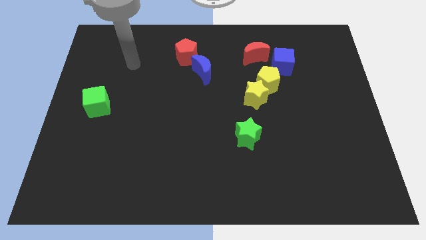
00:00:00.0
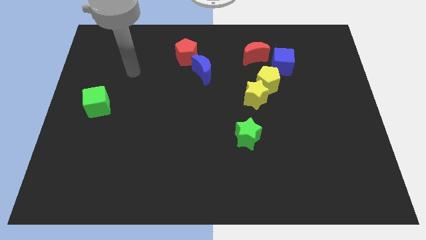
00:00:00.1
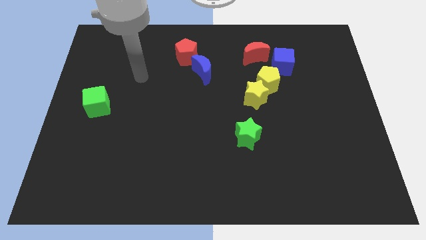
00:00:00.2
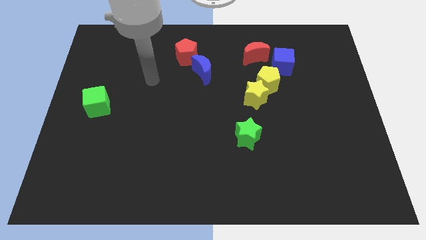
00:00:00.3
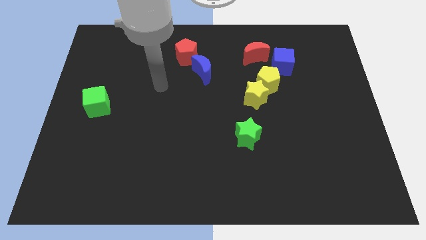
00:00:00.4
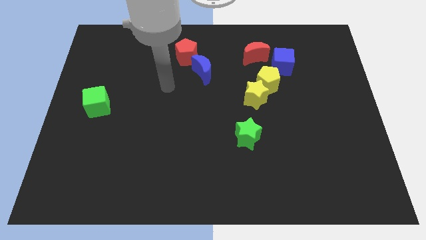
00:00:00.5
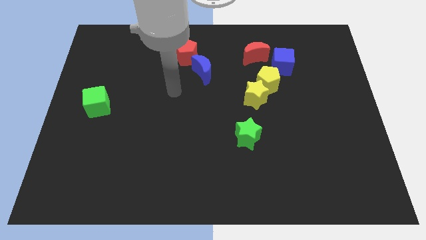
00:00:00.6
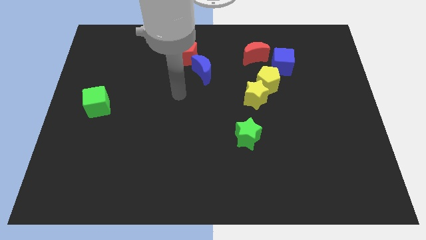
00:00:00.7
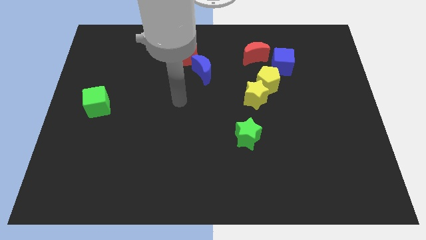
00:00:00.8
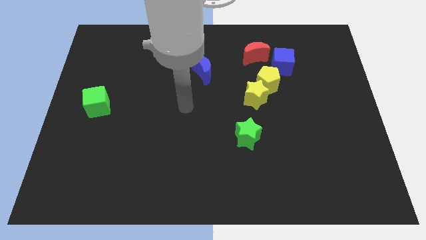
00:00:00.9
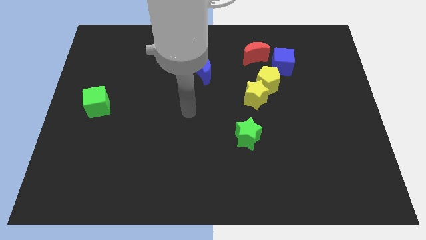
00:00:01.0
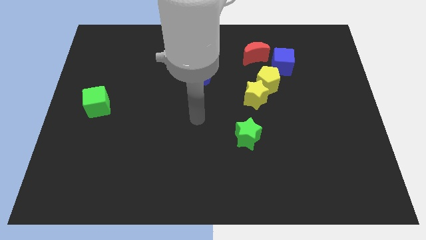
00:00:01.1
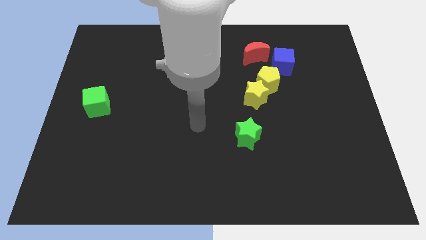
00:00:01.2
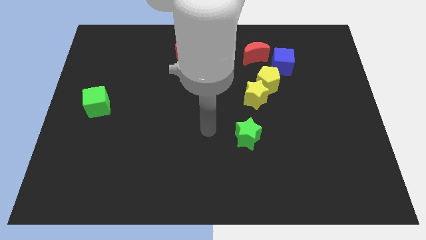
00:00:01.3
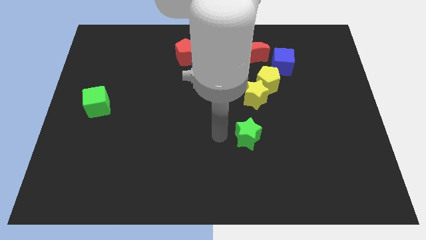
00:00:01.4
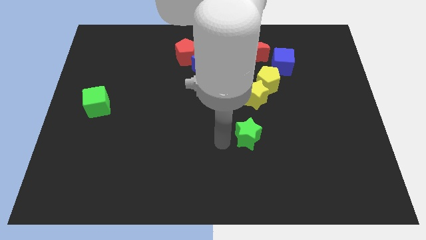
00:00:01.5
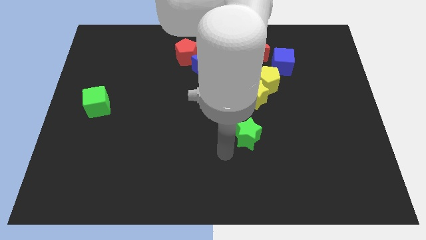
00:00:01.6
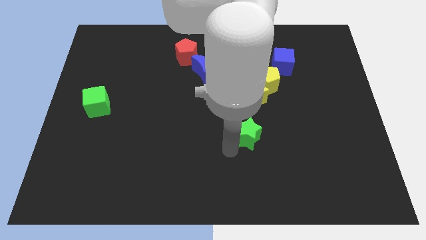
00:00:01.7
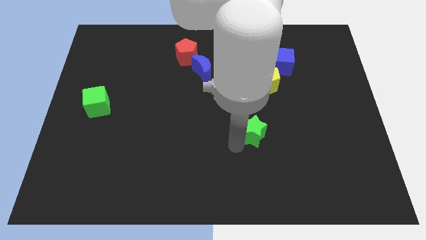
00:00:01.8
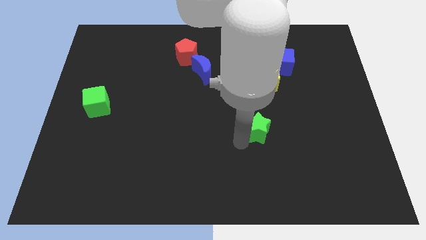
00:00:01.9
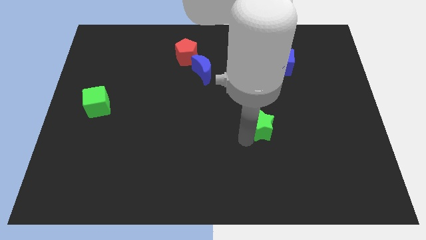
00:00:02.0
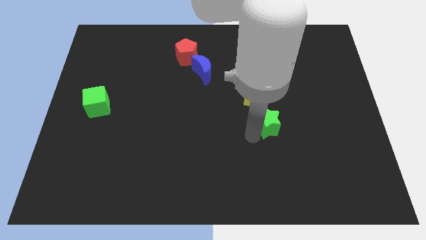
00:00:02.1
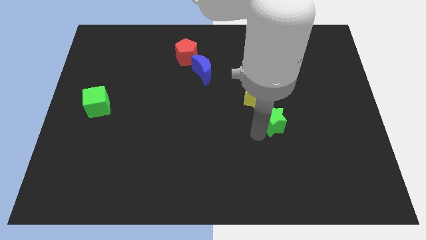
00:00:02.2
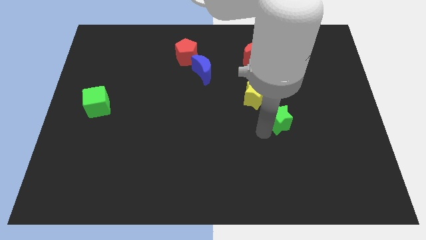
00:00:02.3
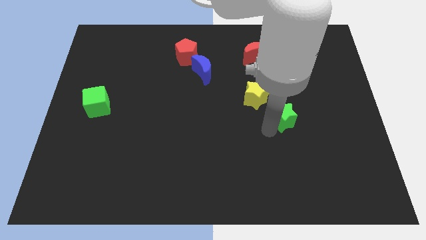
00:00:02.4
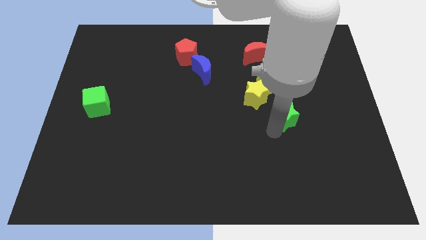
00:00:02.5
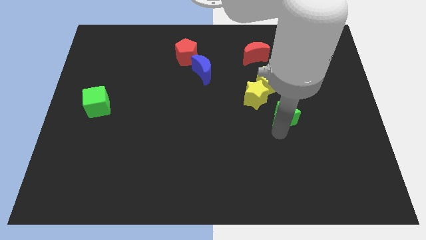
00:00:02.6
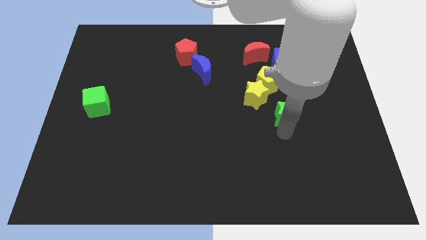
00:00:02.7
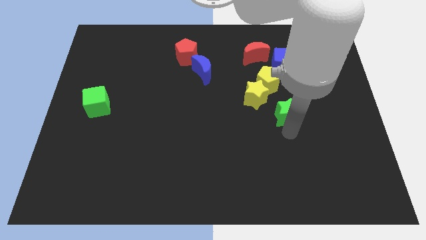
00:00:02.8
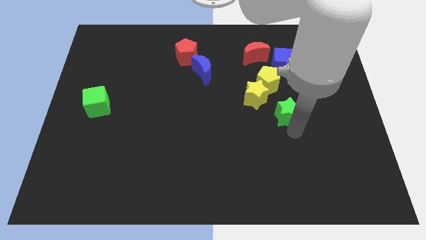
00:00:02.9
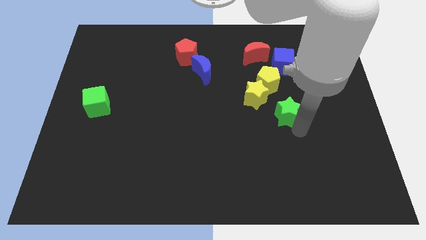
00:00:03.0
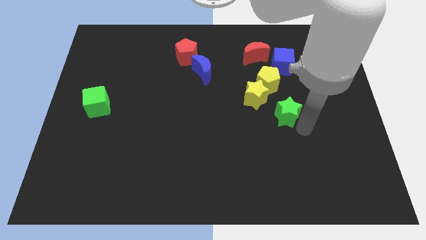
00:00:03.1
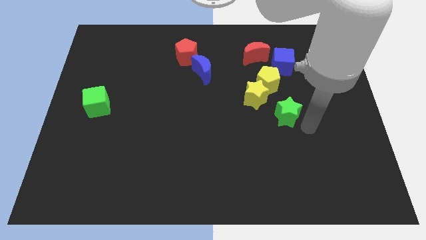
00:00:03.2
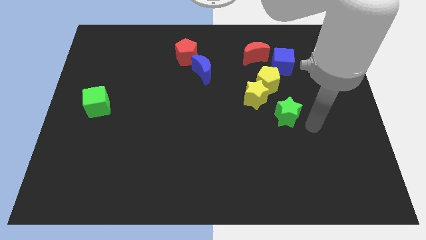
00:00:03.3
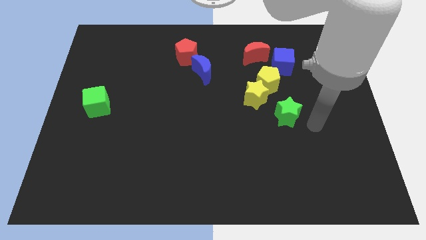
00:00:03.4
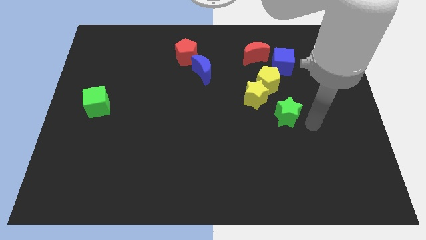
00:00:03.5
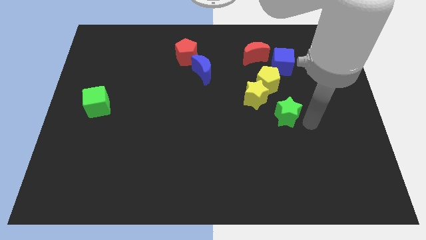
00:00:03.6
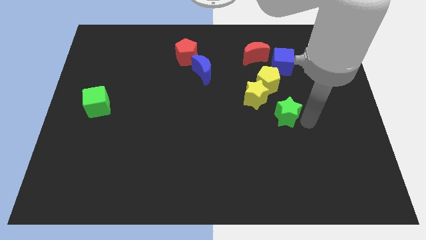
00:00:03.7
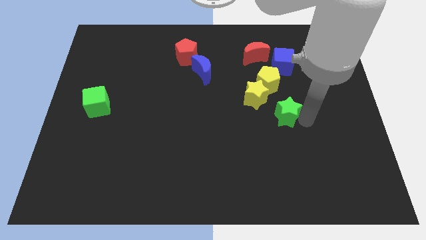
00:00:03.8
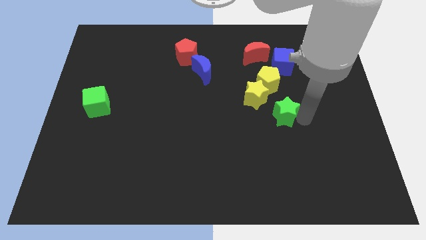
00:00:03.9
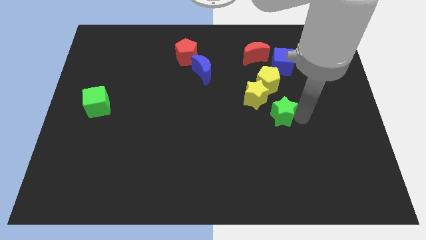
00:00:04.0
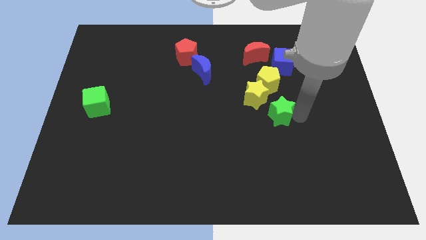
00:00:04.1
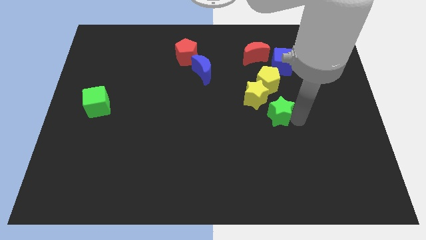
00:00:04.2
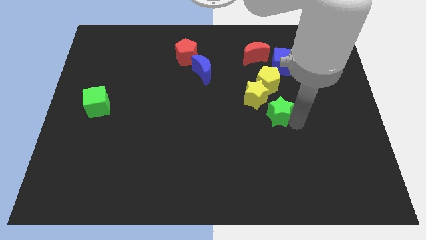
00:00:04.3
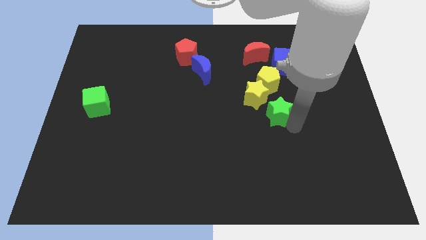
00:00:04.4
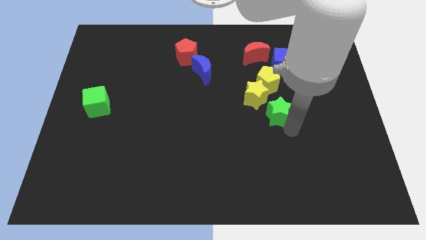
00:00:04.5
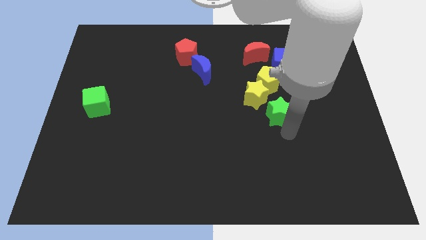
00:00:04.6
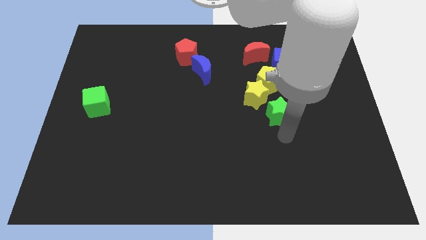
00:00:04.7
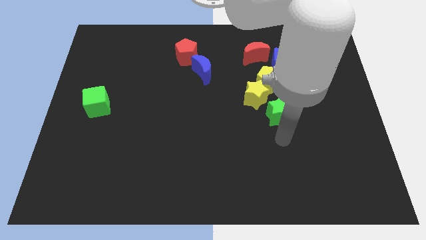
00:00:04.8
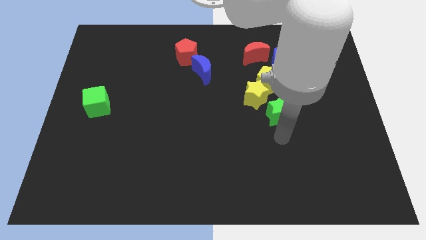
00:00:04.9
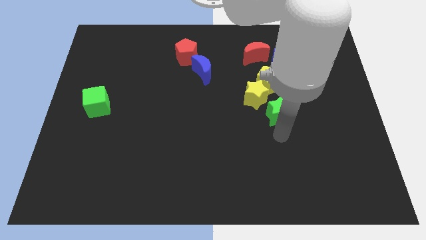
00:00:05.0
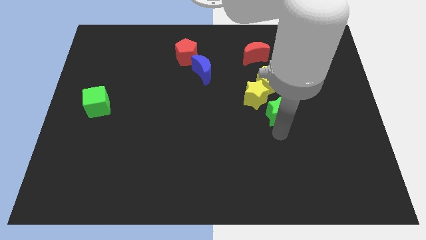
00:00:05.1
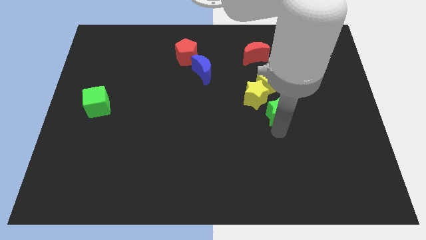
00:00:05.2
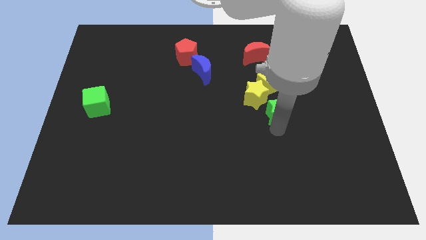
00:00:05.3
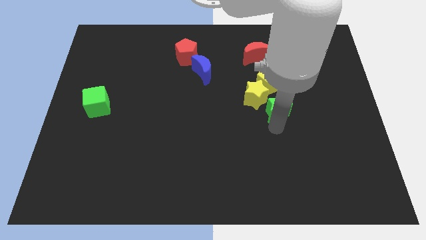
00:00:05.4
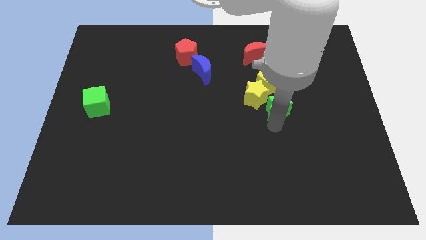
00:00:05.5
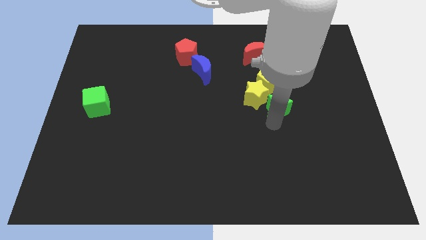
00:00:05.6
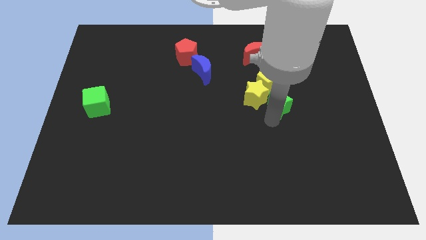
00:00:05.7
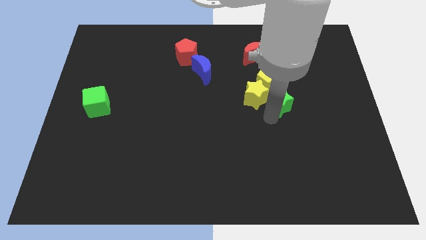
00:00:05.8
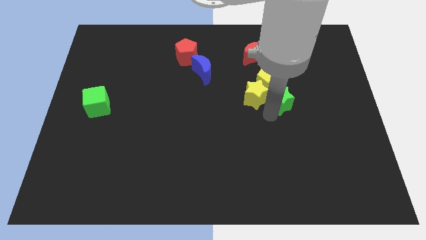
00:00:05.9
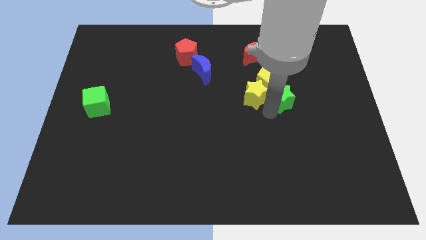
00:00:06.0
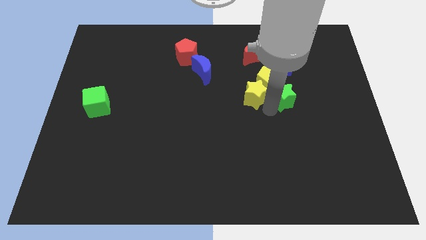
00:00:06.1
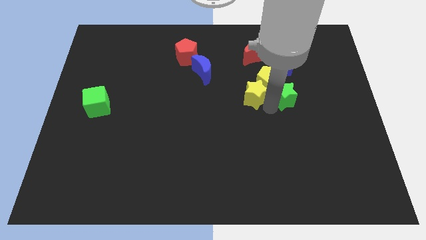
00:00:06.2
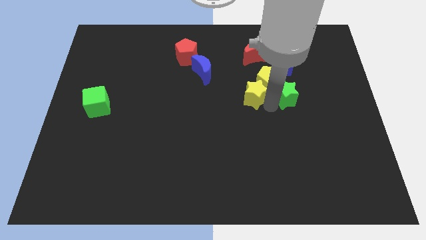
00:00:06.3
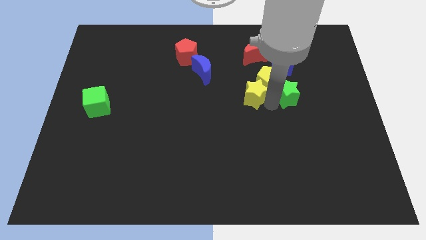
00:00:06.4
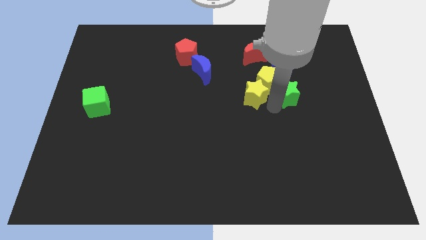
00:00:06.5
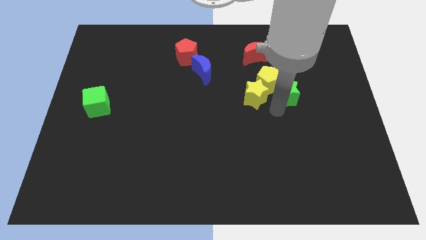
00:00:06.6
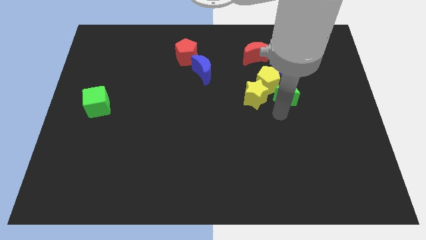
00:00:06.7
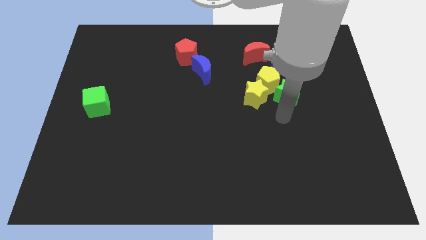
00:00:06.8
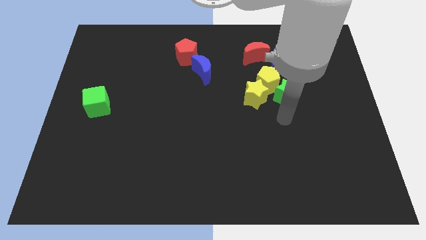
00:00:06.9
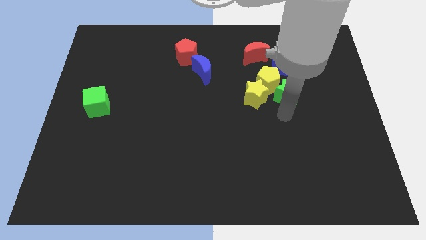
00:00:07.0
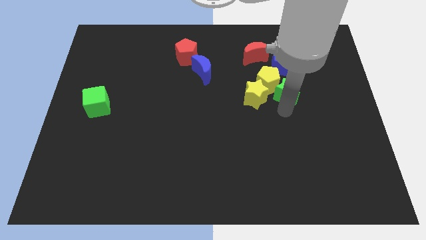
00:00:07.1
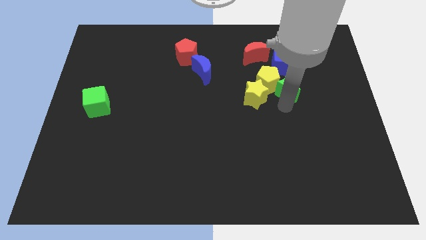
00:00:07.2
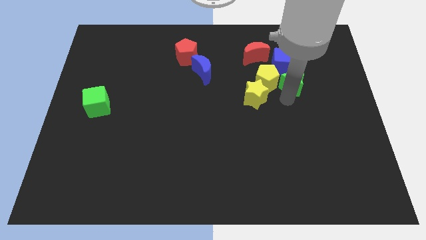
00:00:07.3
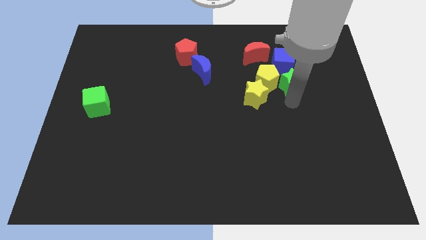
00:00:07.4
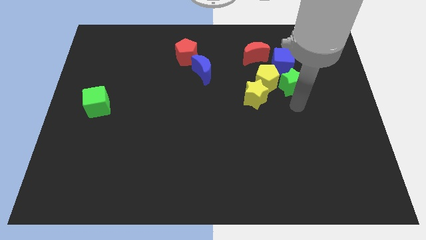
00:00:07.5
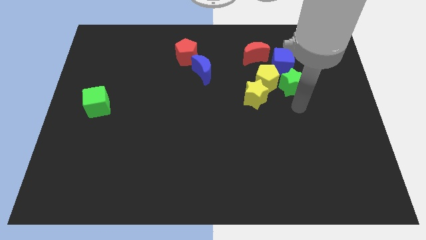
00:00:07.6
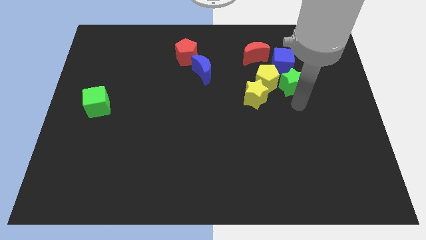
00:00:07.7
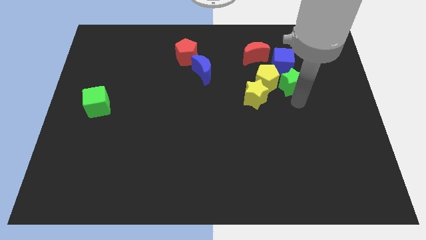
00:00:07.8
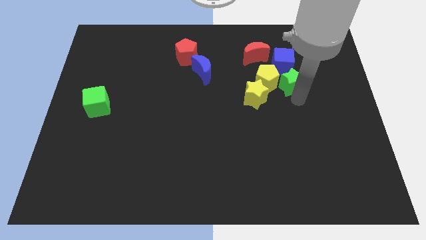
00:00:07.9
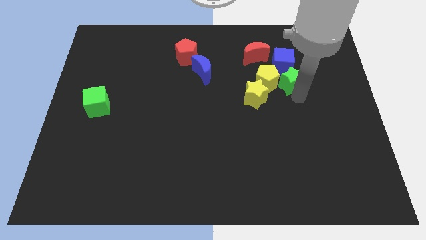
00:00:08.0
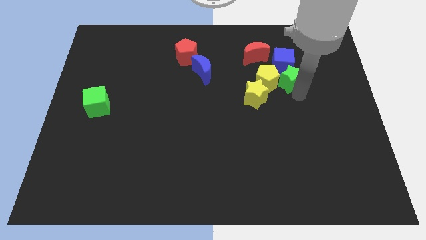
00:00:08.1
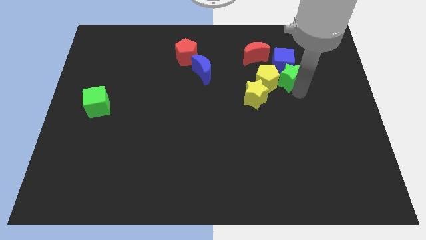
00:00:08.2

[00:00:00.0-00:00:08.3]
push the green star next to the blue cube
